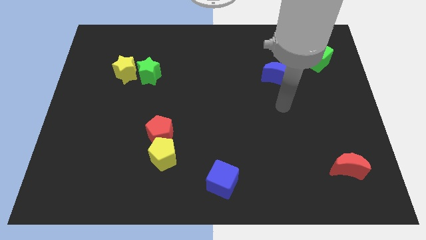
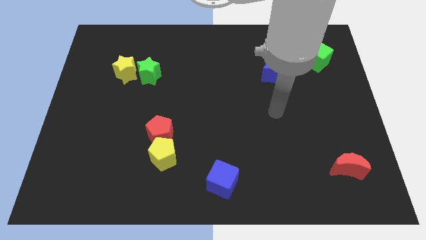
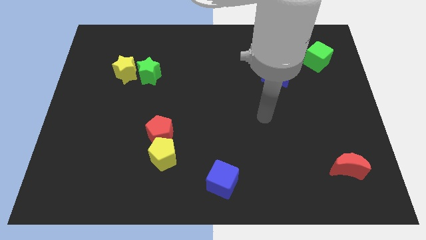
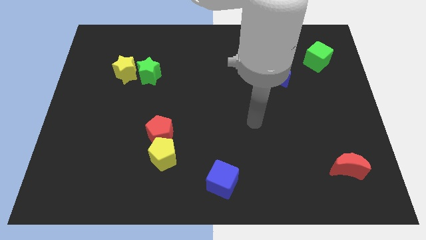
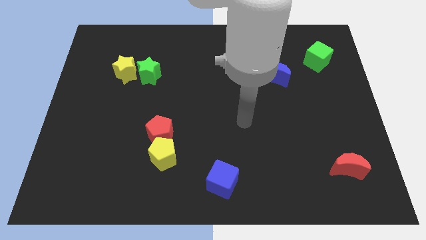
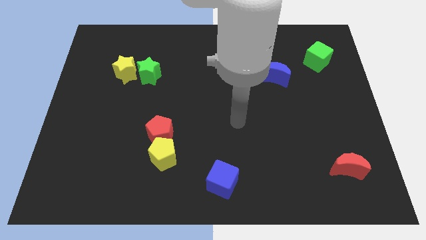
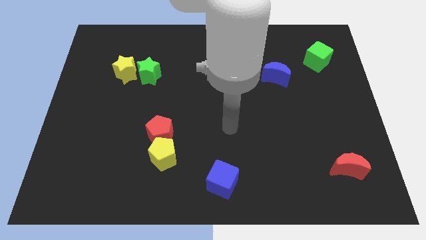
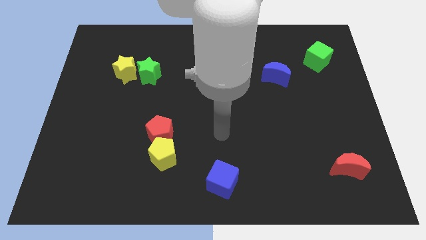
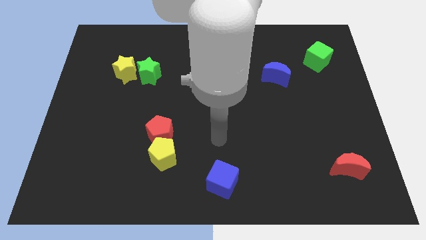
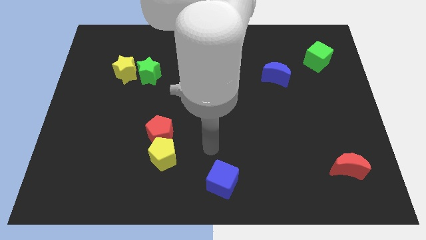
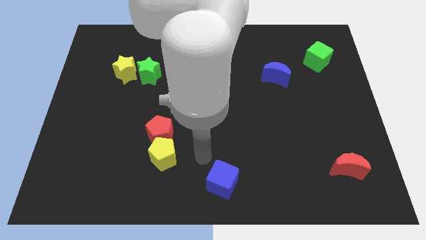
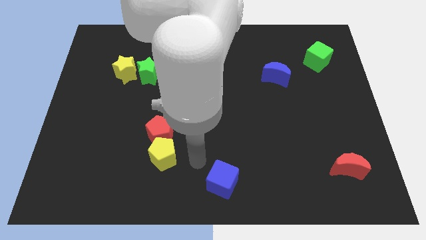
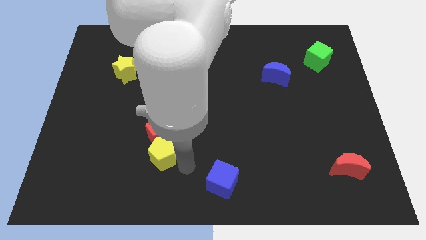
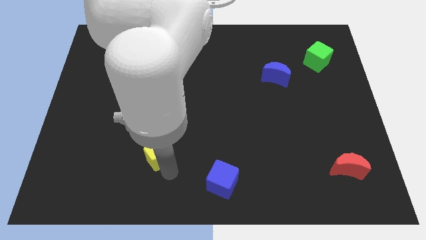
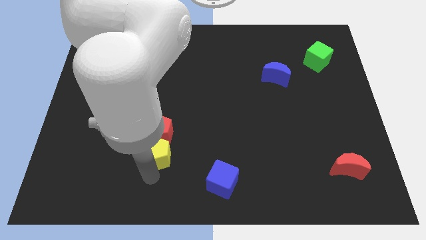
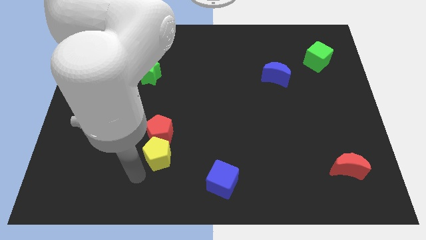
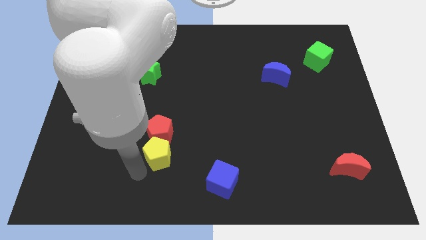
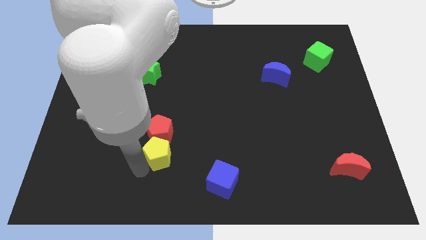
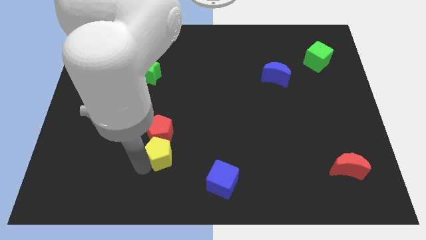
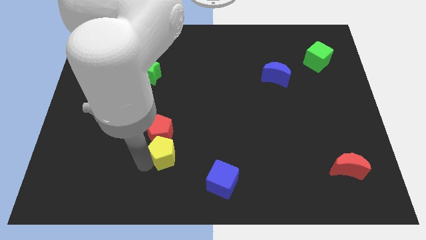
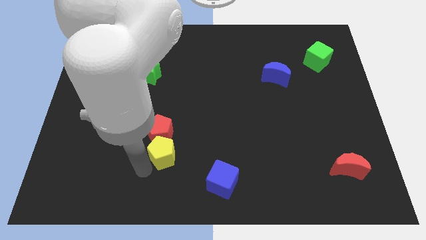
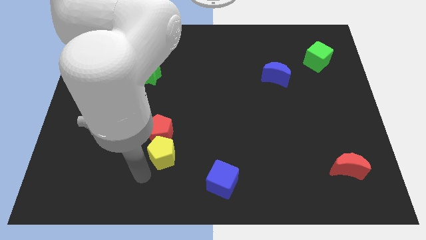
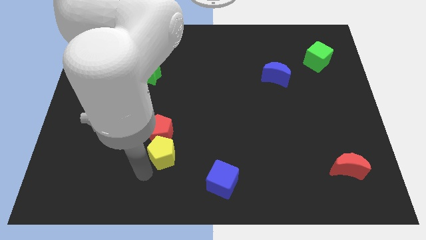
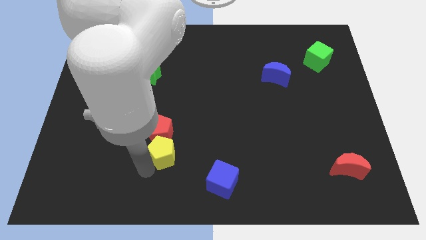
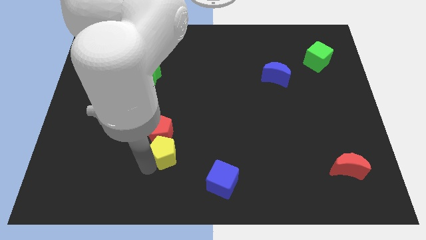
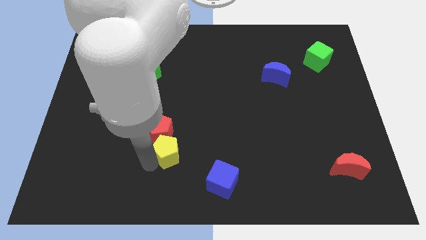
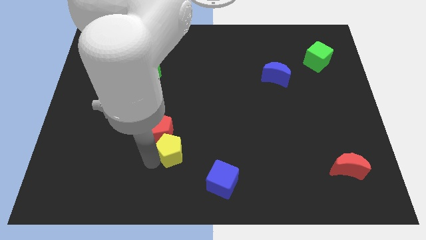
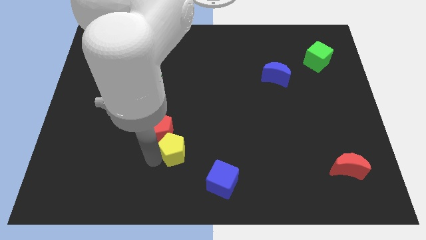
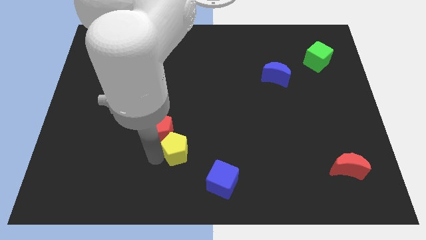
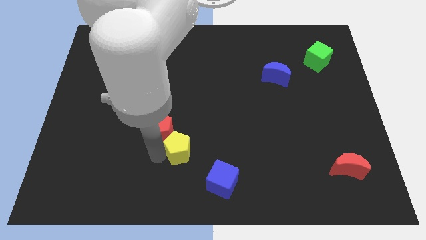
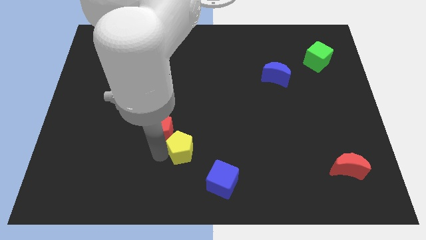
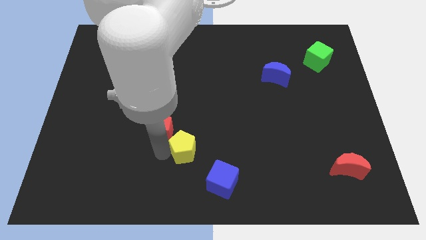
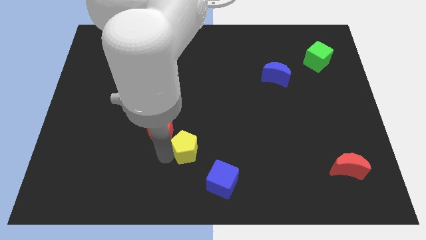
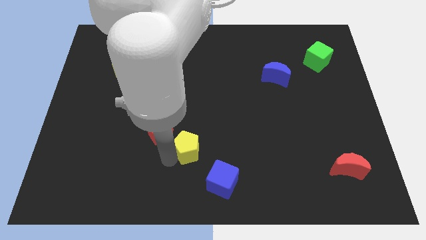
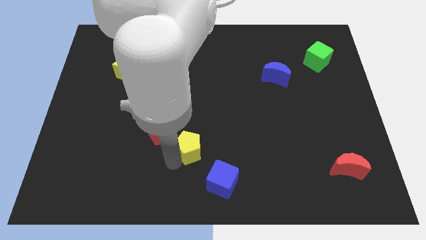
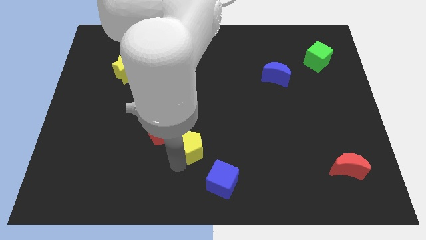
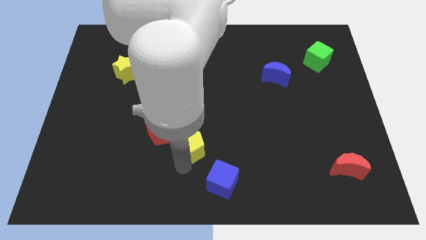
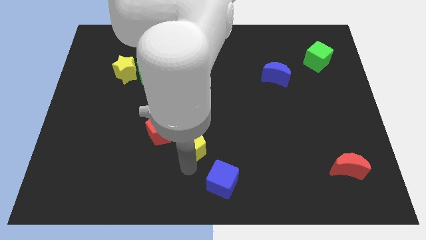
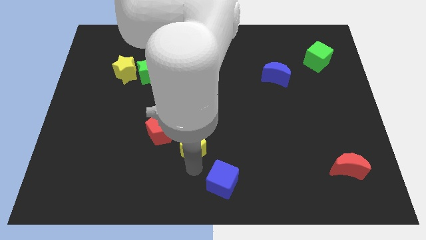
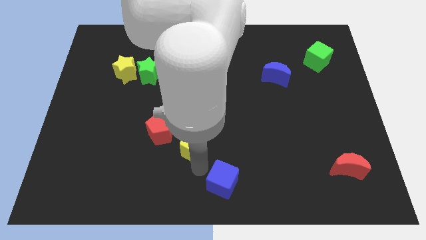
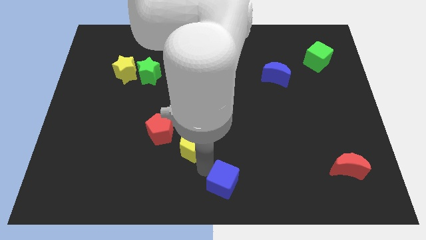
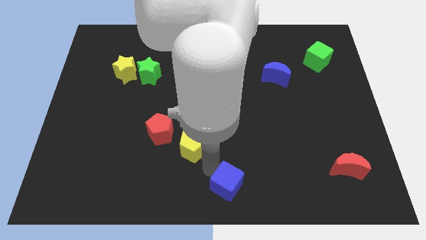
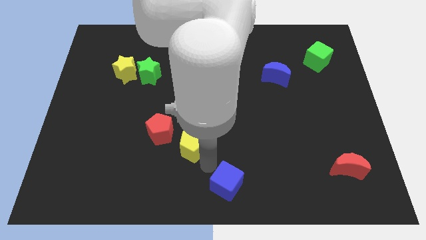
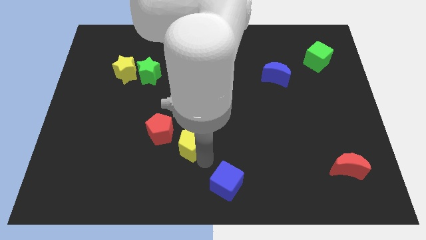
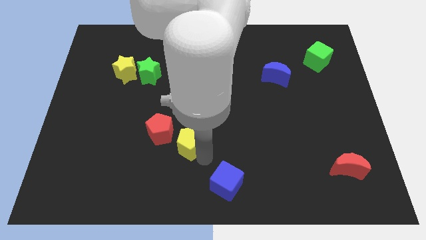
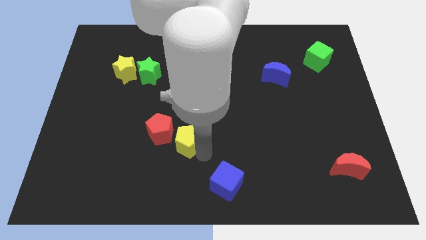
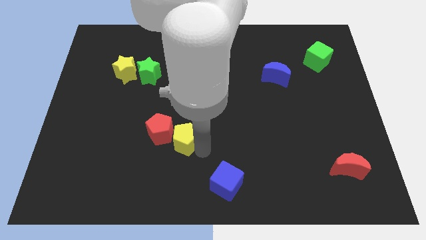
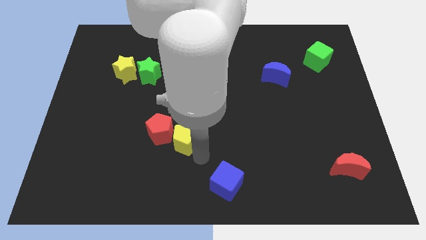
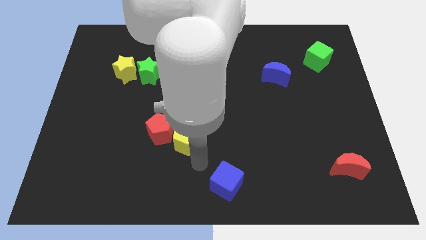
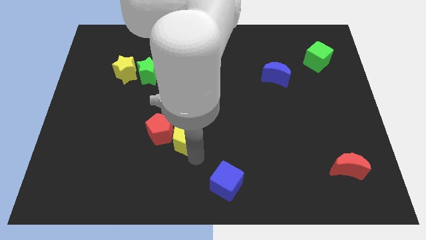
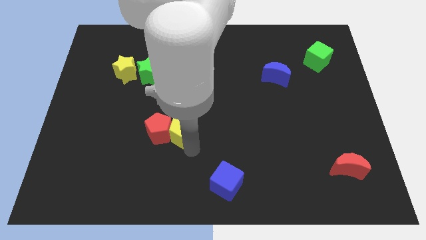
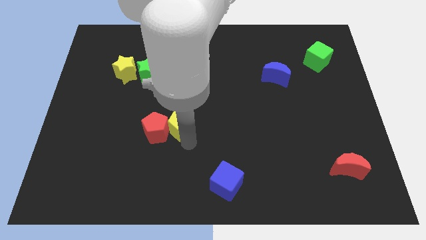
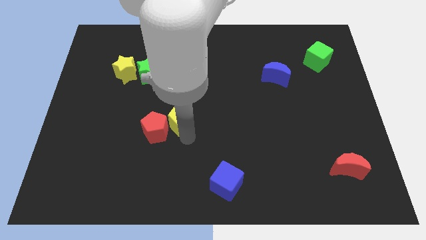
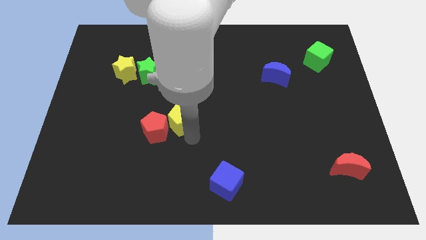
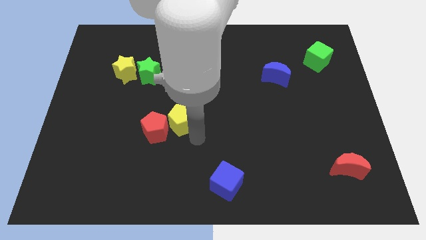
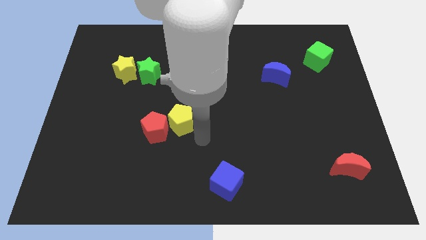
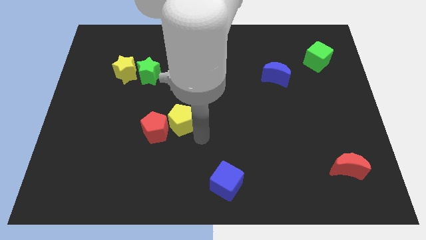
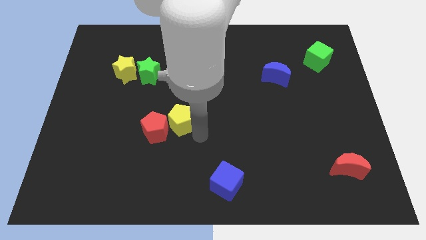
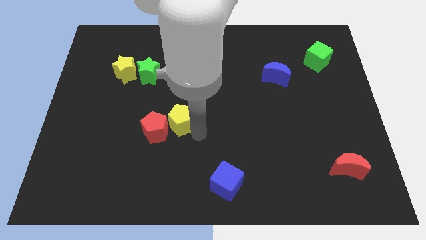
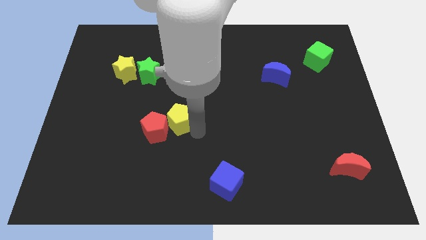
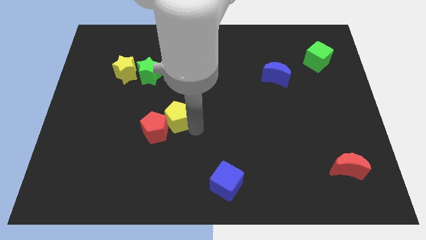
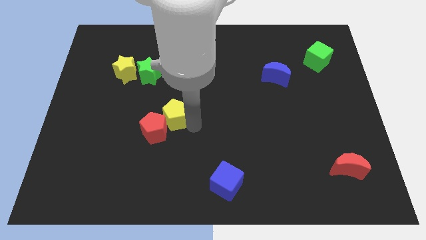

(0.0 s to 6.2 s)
push the yellow pentagon above the red pentagon

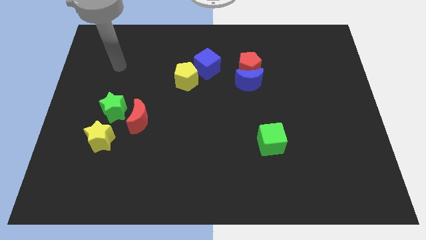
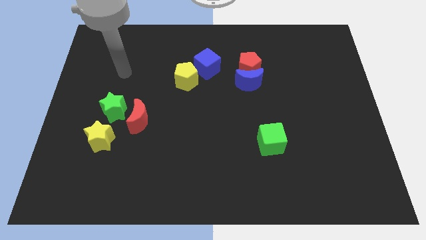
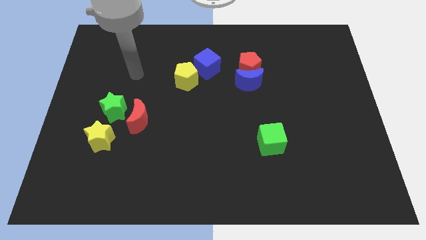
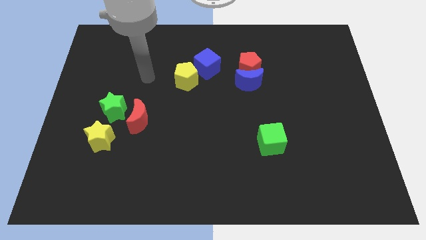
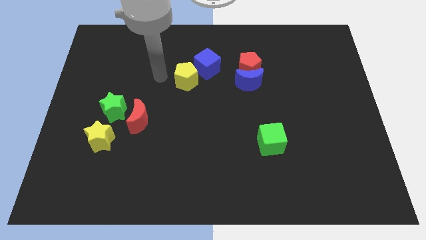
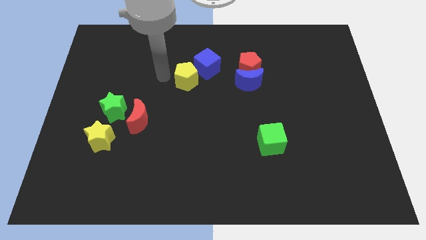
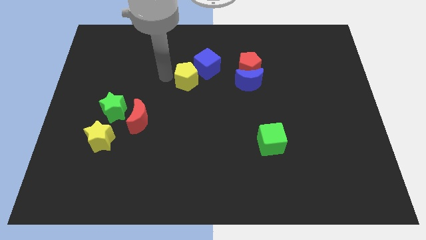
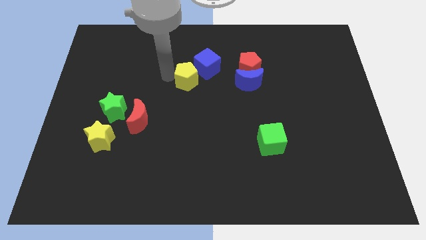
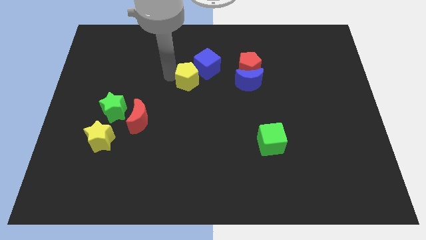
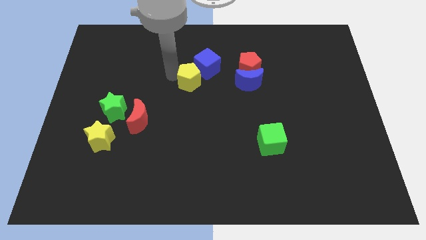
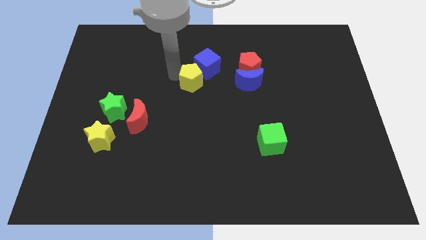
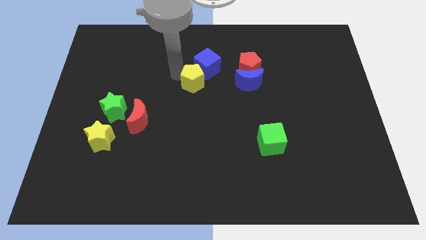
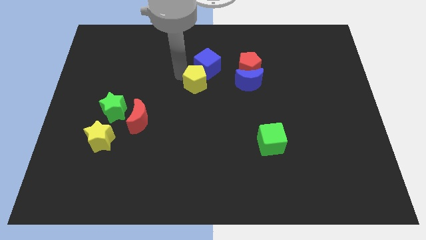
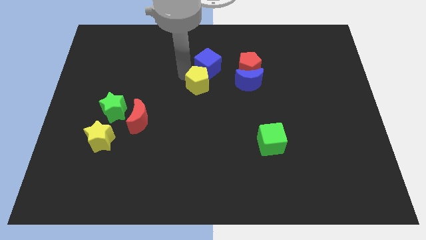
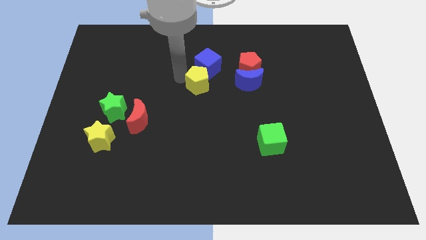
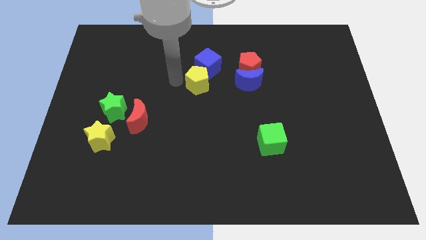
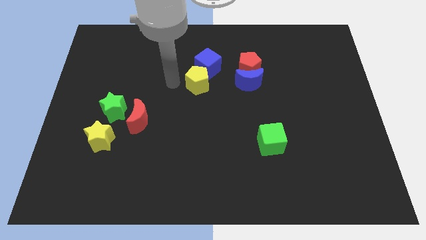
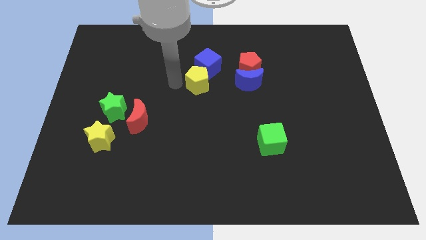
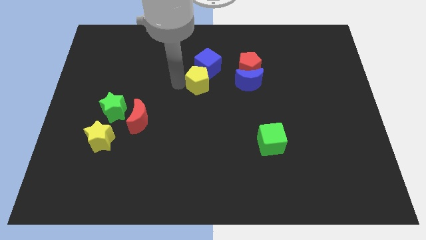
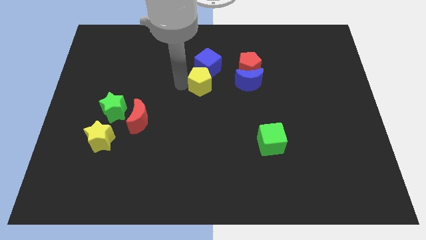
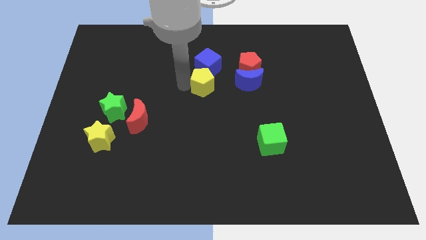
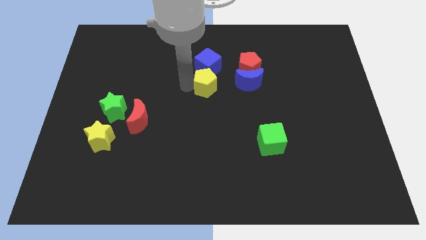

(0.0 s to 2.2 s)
slide the yellow pentagon to the bottom right side of the blue cube
